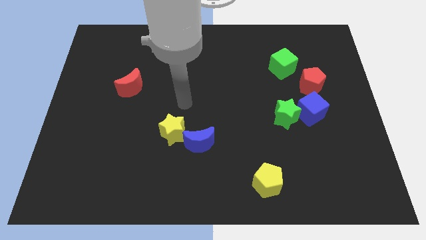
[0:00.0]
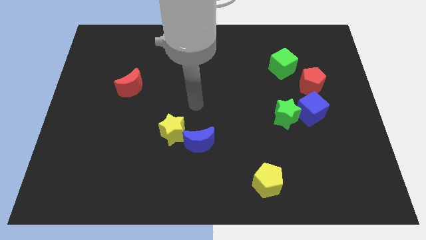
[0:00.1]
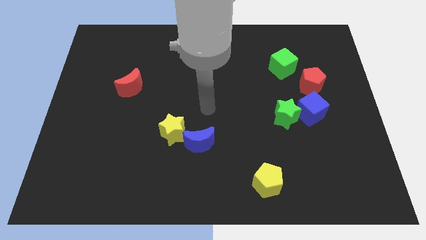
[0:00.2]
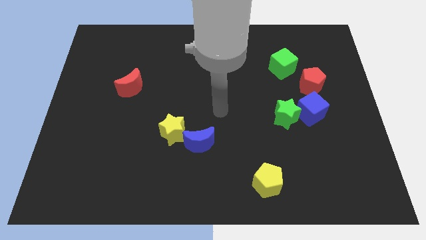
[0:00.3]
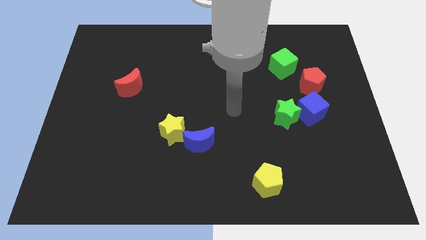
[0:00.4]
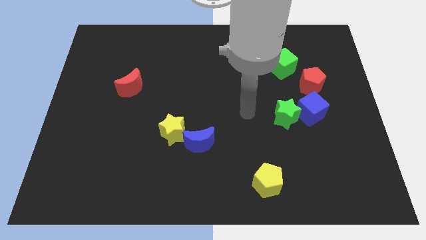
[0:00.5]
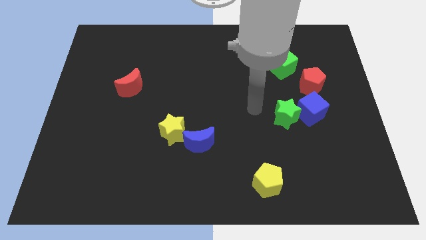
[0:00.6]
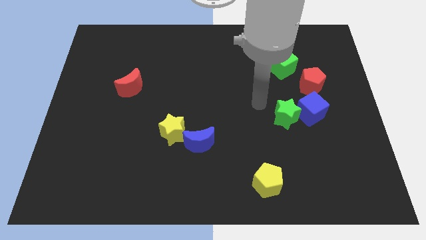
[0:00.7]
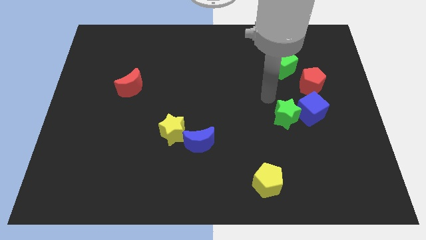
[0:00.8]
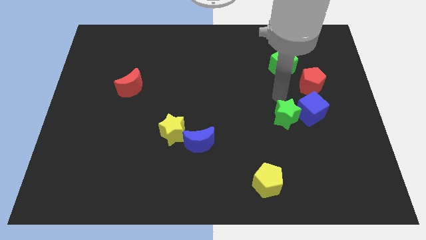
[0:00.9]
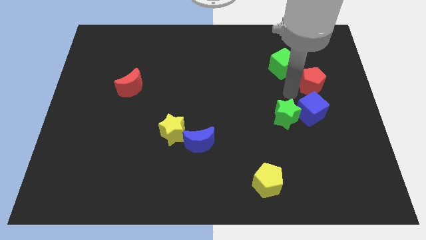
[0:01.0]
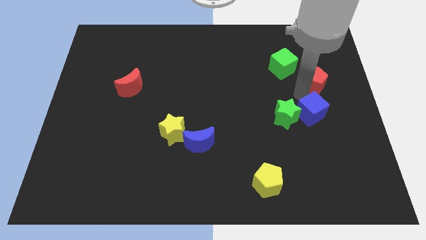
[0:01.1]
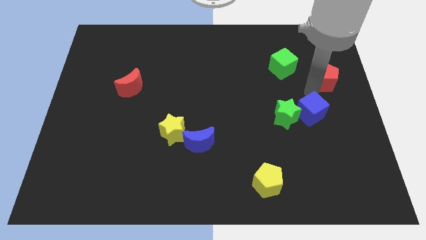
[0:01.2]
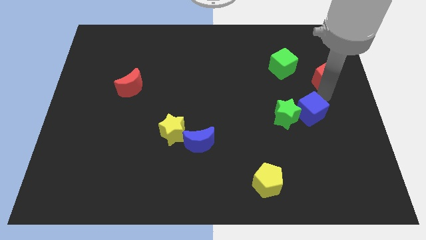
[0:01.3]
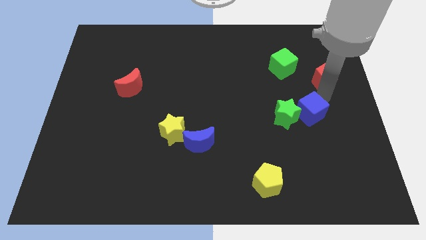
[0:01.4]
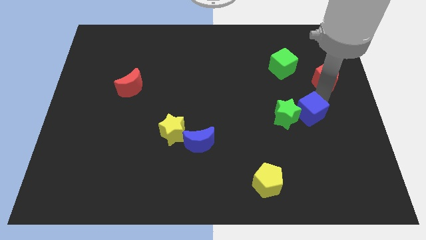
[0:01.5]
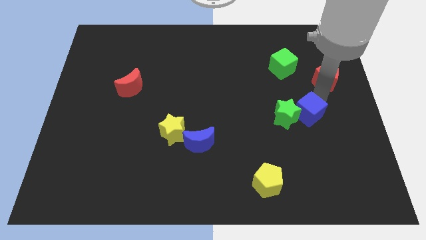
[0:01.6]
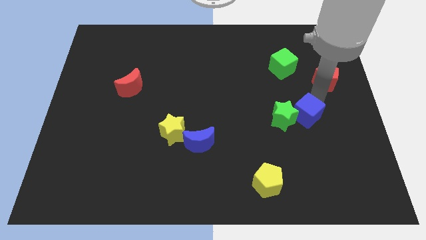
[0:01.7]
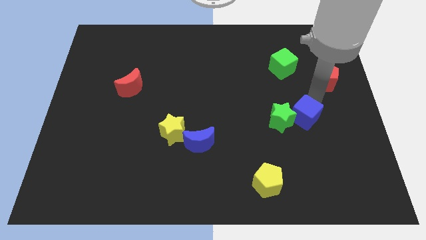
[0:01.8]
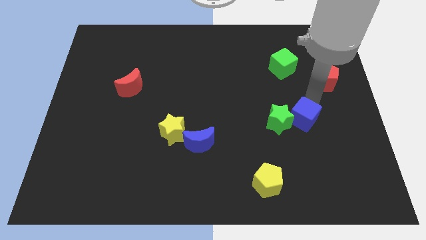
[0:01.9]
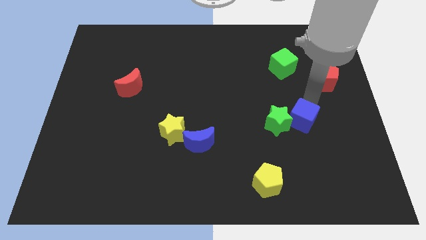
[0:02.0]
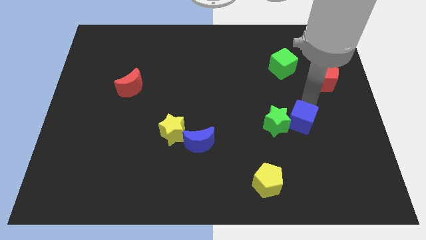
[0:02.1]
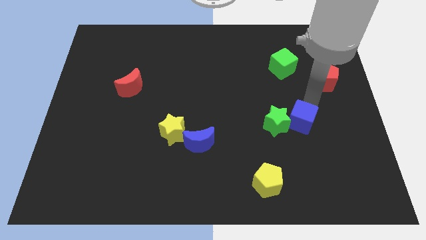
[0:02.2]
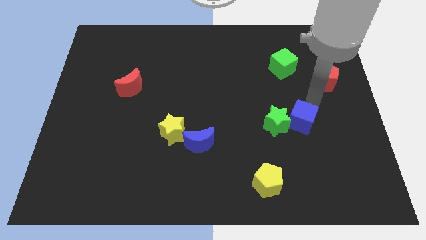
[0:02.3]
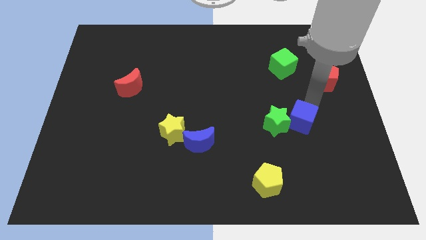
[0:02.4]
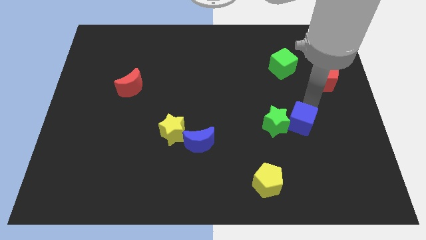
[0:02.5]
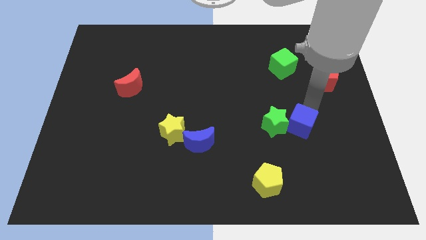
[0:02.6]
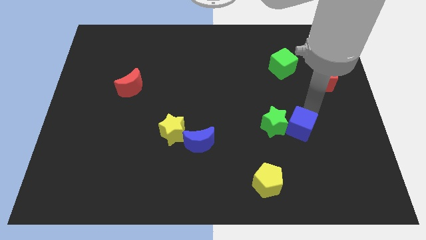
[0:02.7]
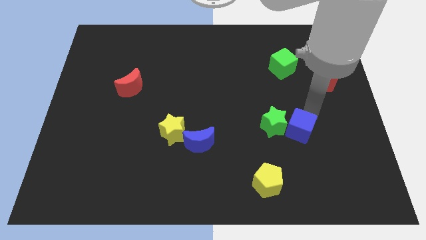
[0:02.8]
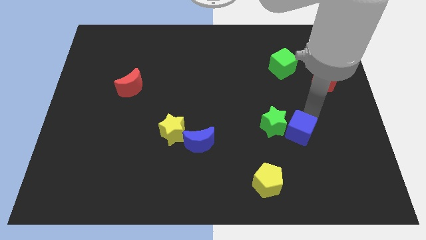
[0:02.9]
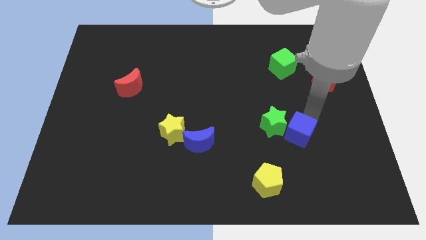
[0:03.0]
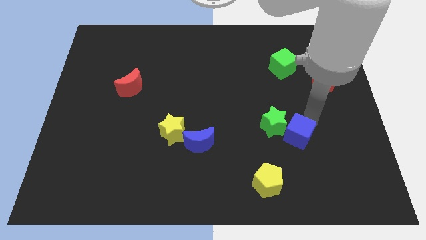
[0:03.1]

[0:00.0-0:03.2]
slightly push the blue cube downwards and then left

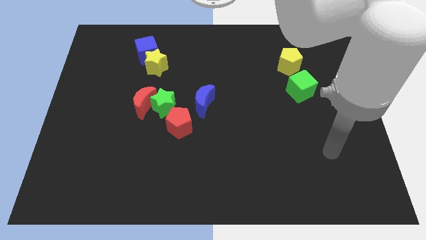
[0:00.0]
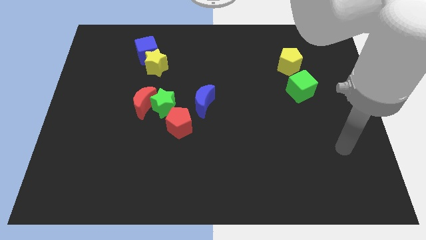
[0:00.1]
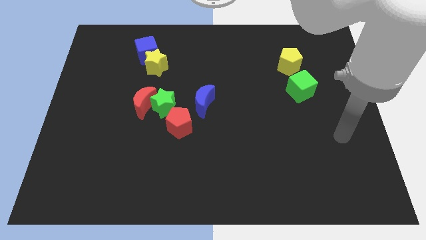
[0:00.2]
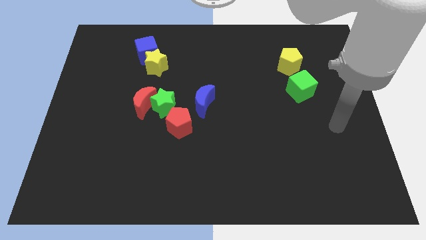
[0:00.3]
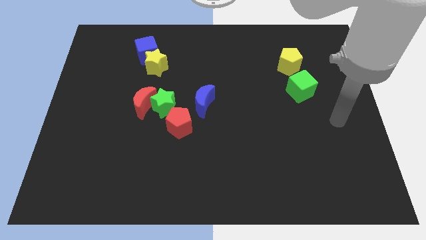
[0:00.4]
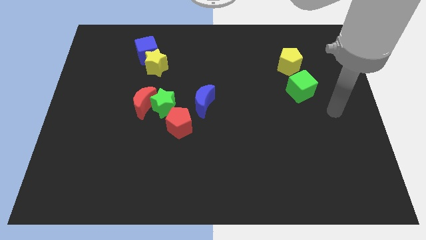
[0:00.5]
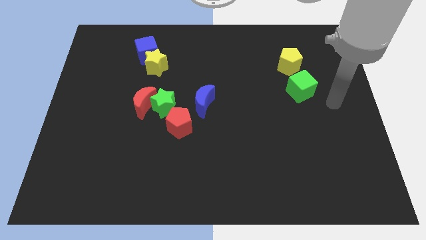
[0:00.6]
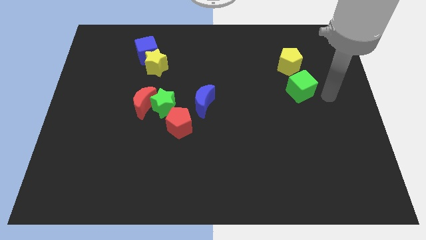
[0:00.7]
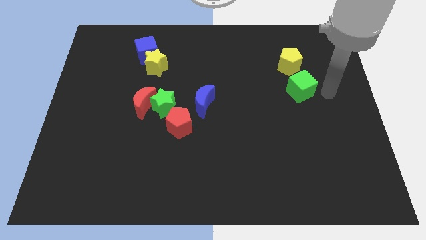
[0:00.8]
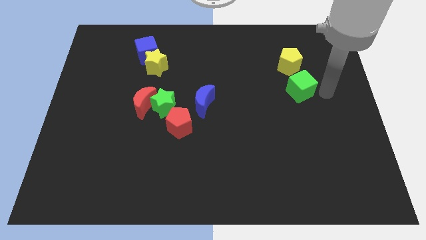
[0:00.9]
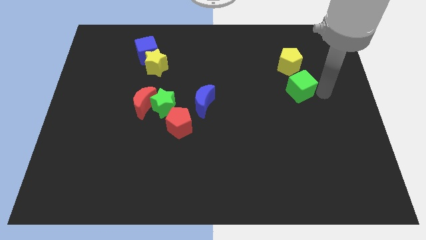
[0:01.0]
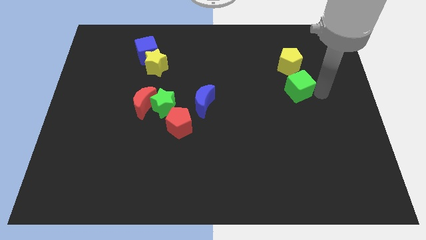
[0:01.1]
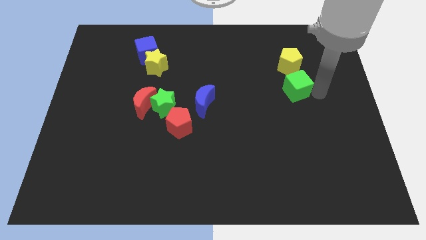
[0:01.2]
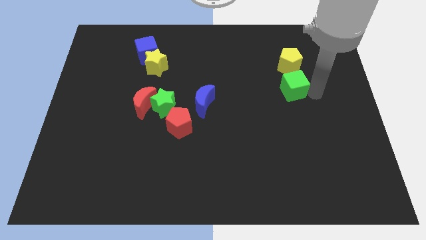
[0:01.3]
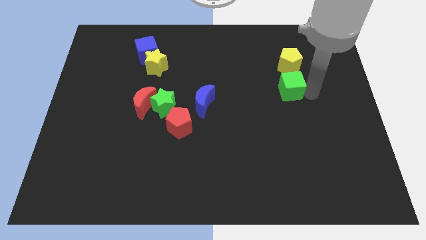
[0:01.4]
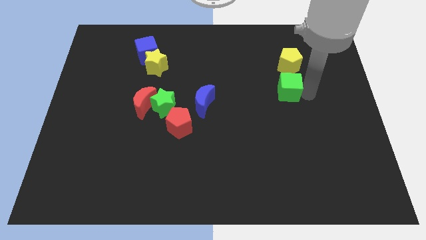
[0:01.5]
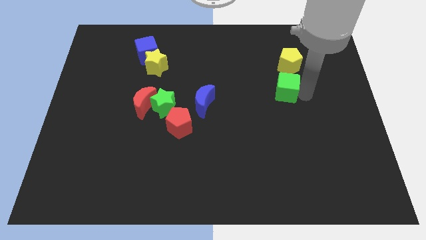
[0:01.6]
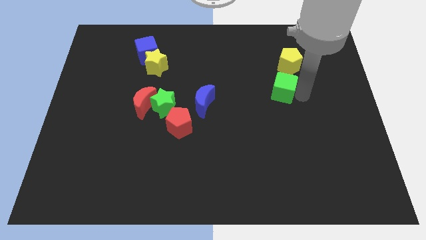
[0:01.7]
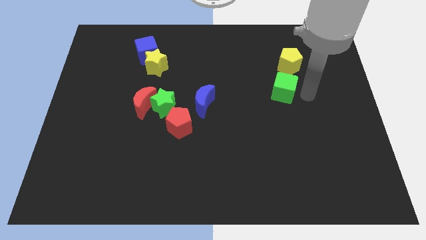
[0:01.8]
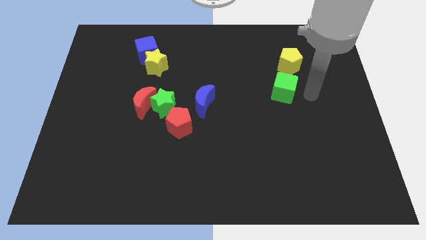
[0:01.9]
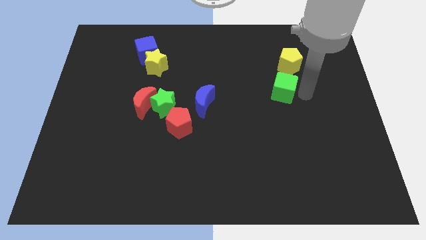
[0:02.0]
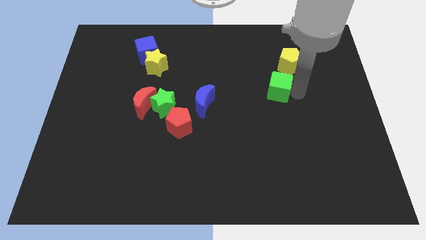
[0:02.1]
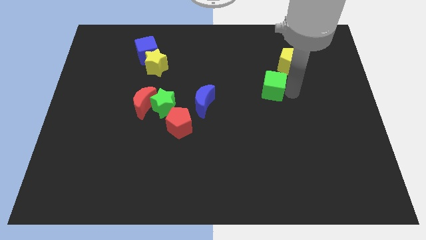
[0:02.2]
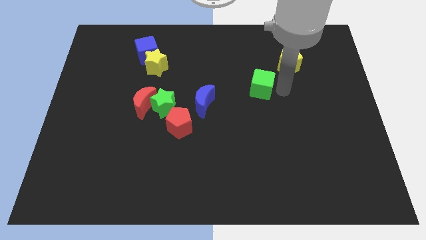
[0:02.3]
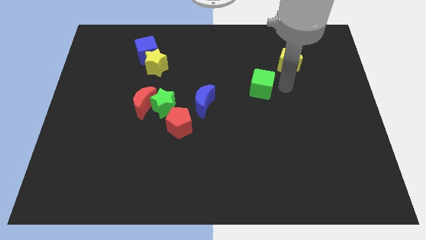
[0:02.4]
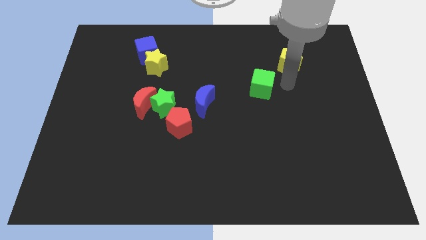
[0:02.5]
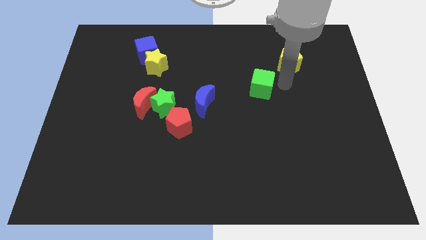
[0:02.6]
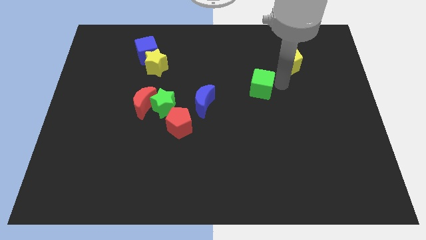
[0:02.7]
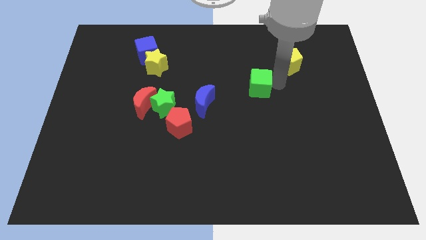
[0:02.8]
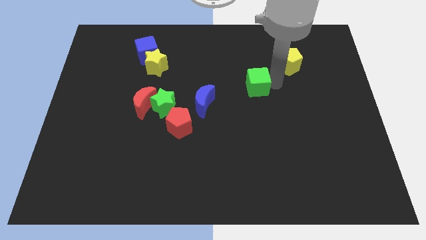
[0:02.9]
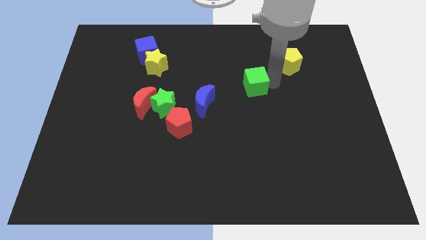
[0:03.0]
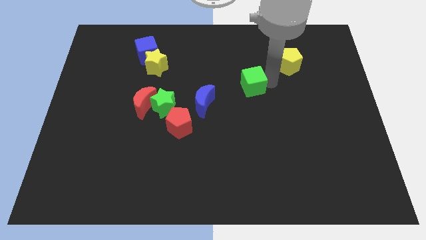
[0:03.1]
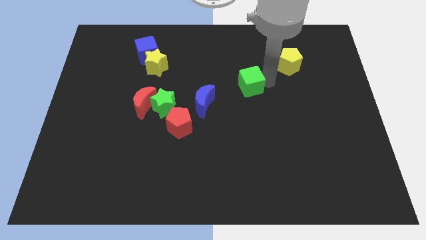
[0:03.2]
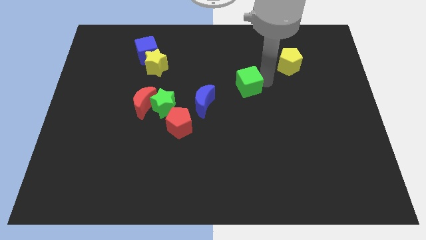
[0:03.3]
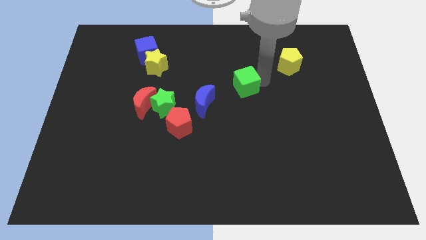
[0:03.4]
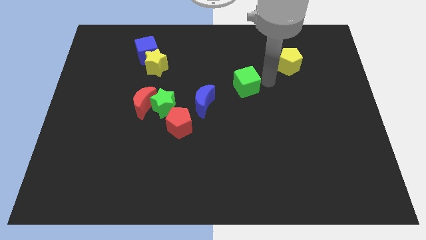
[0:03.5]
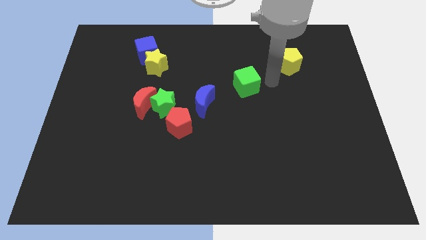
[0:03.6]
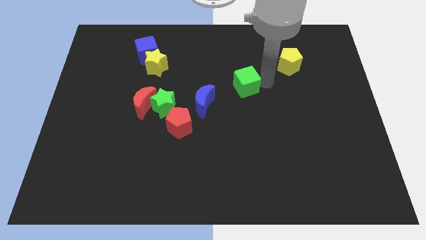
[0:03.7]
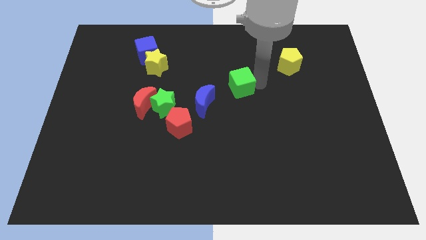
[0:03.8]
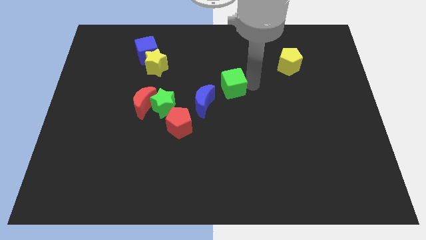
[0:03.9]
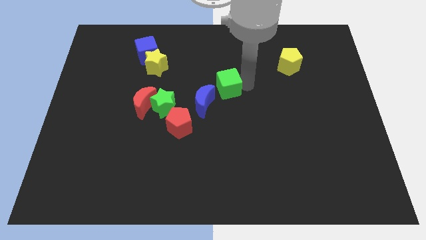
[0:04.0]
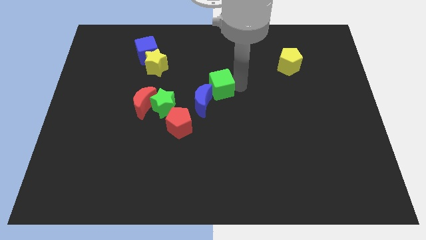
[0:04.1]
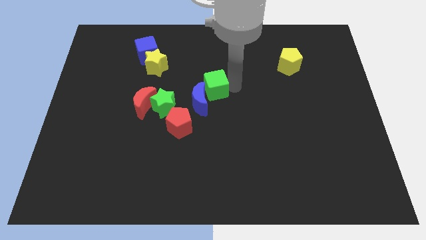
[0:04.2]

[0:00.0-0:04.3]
move the green cube to the left

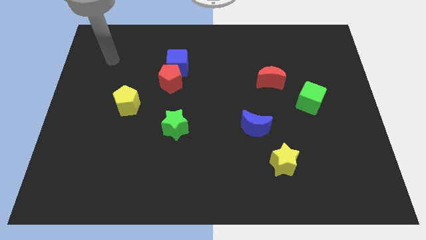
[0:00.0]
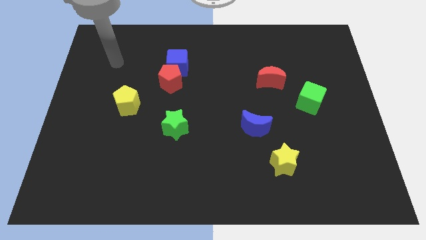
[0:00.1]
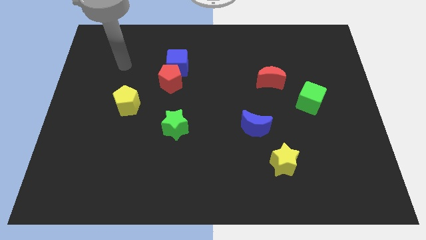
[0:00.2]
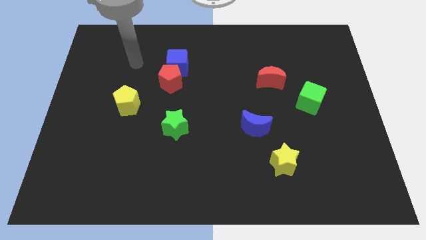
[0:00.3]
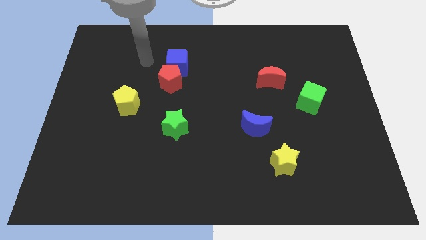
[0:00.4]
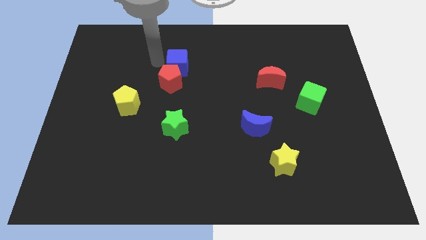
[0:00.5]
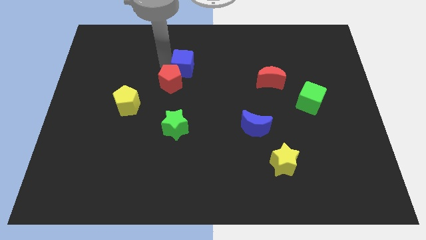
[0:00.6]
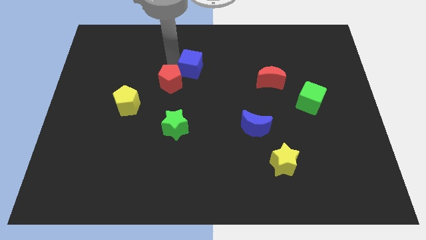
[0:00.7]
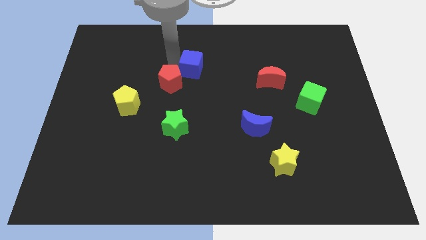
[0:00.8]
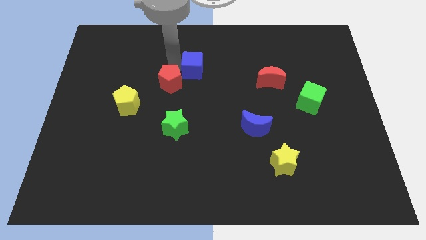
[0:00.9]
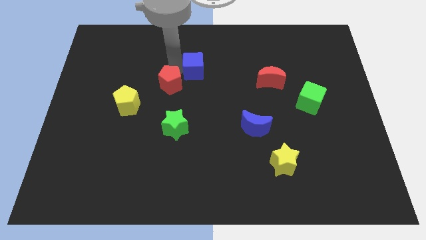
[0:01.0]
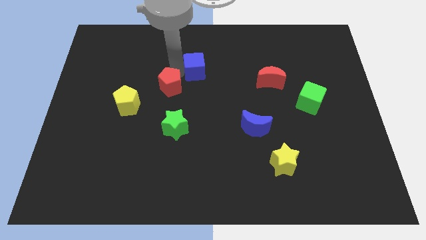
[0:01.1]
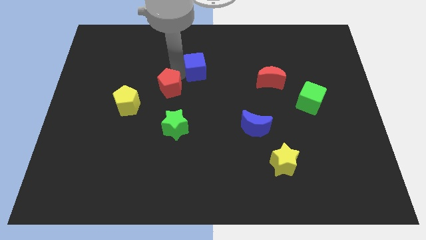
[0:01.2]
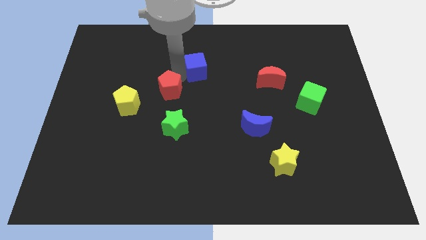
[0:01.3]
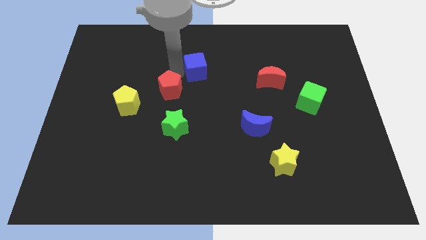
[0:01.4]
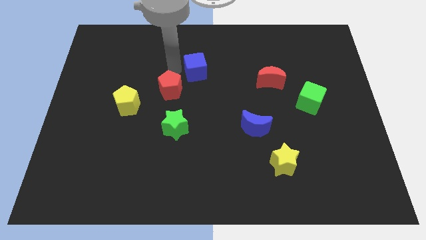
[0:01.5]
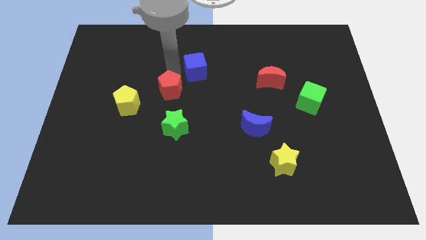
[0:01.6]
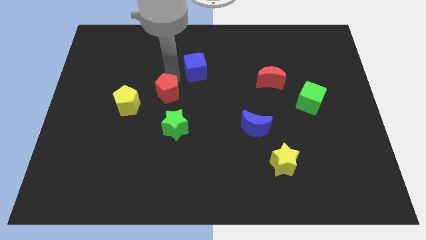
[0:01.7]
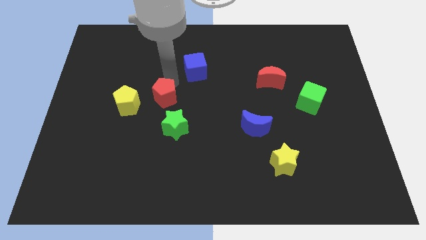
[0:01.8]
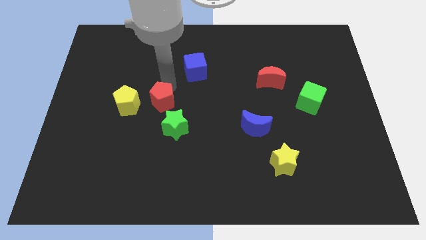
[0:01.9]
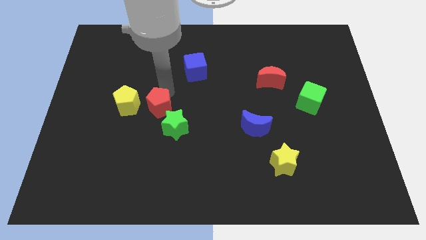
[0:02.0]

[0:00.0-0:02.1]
push the red pentagon a bit downwards
